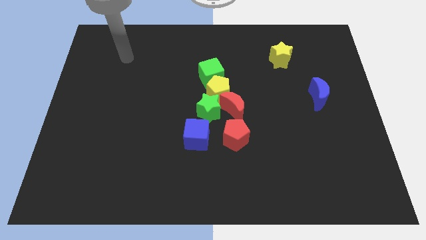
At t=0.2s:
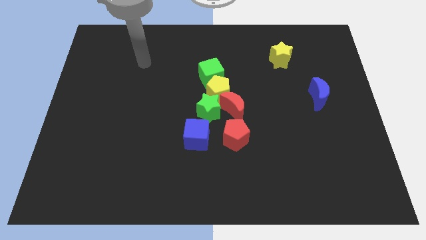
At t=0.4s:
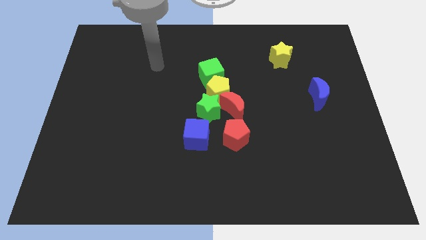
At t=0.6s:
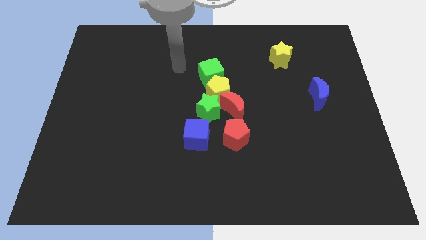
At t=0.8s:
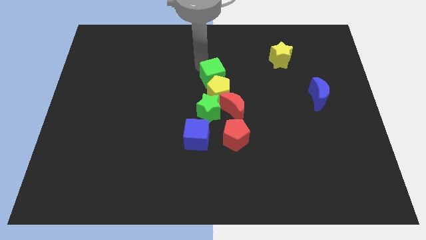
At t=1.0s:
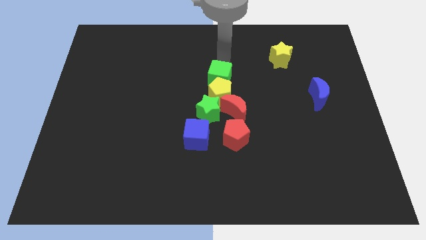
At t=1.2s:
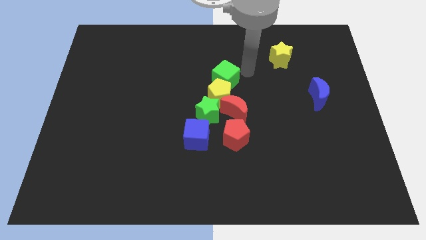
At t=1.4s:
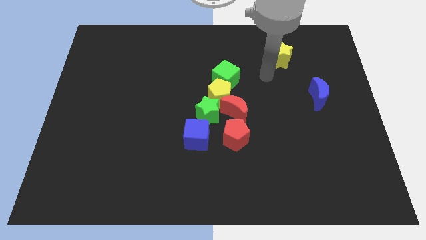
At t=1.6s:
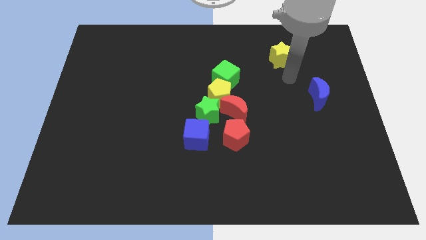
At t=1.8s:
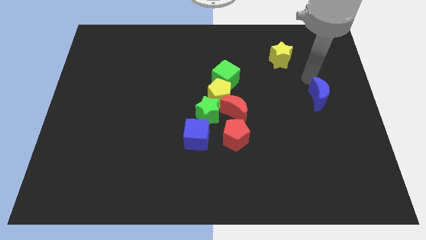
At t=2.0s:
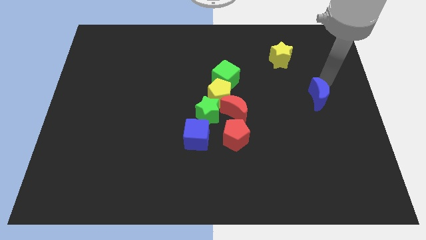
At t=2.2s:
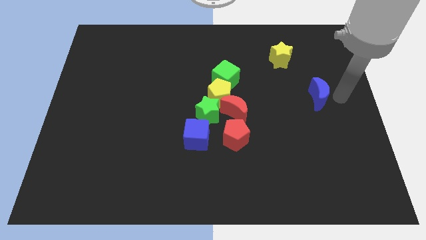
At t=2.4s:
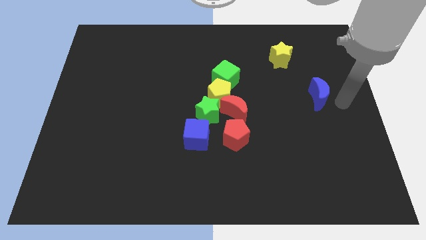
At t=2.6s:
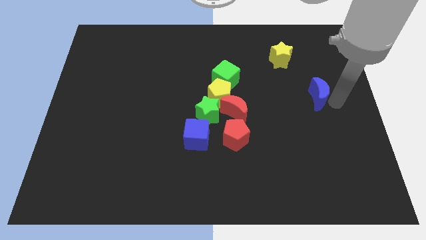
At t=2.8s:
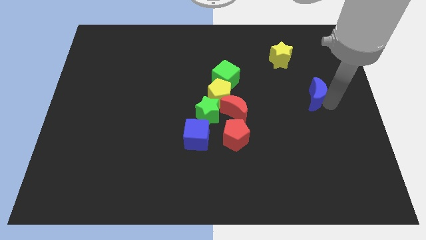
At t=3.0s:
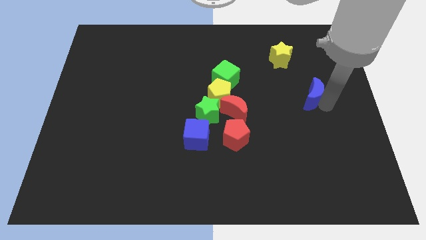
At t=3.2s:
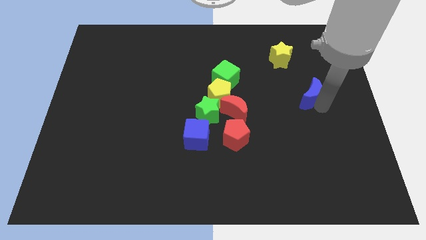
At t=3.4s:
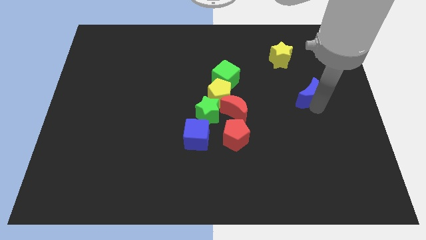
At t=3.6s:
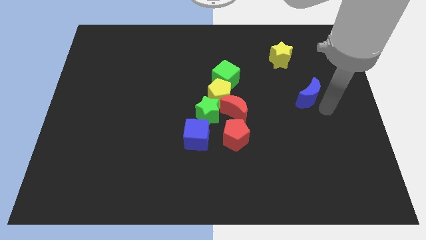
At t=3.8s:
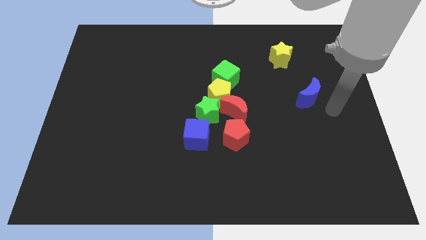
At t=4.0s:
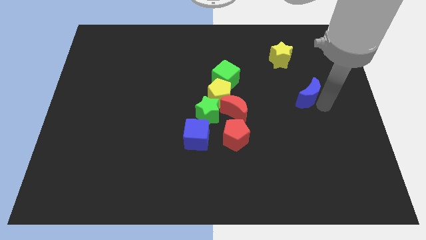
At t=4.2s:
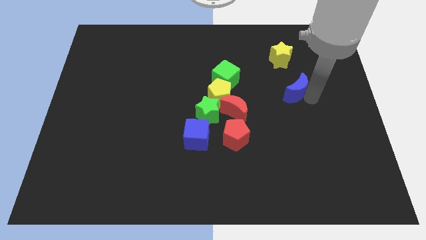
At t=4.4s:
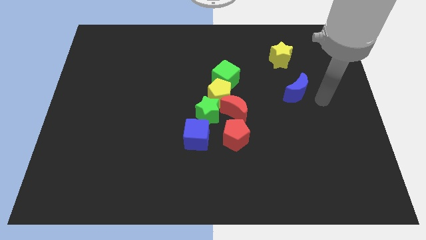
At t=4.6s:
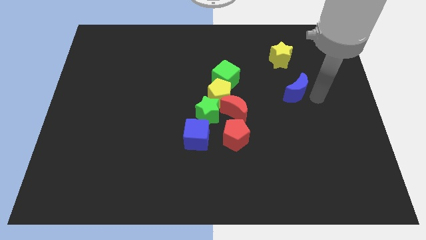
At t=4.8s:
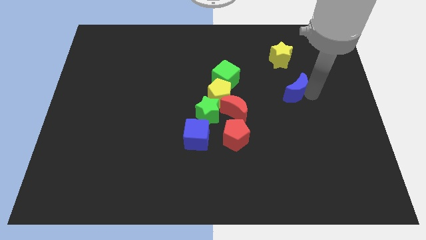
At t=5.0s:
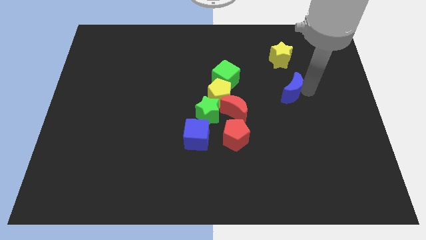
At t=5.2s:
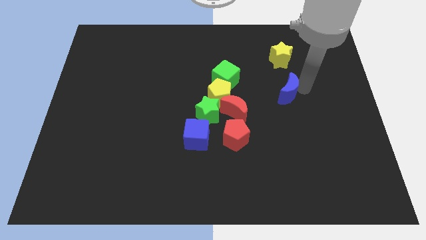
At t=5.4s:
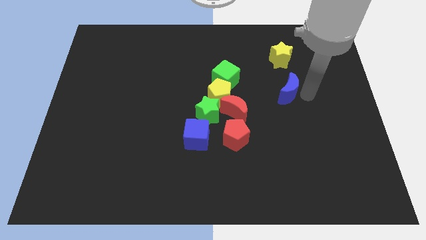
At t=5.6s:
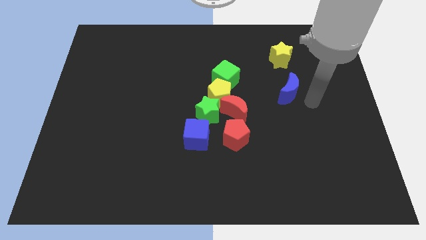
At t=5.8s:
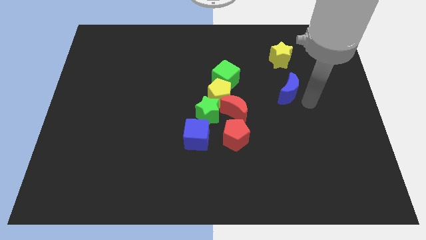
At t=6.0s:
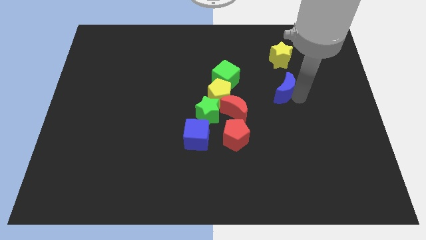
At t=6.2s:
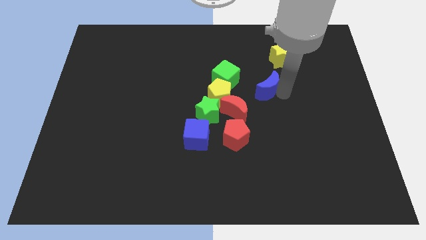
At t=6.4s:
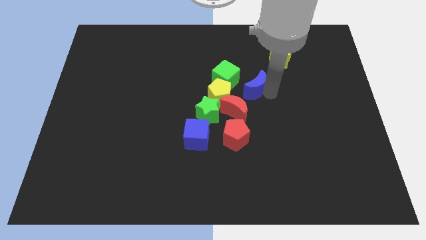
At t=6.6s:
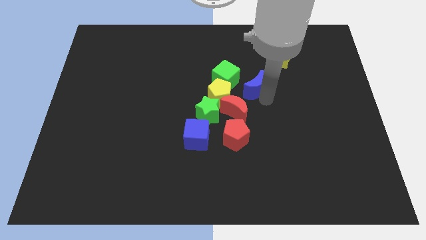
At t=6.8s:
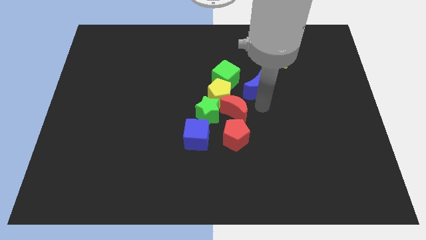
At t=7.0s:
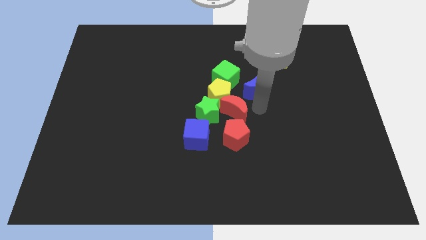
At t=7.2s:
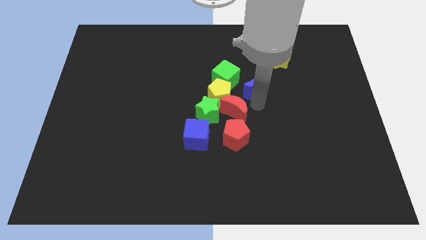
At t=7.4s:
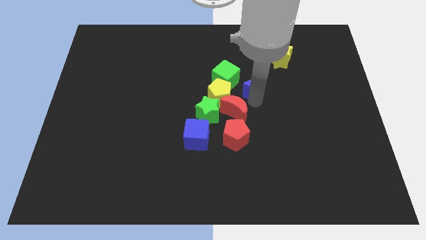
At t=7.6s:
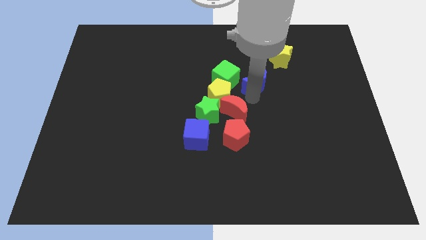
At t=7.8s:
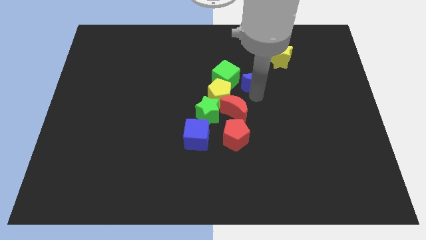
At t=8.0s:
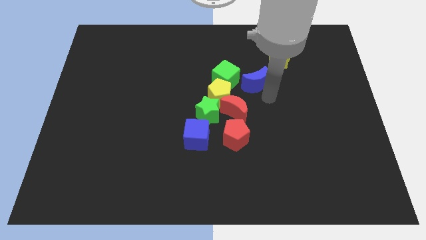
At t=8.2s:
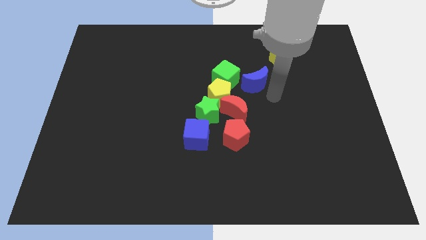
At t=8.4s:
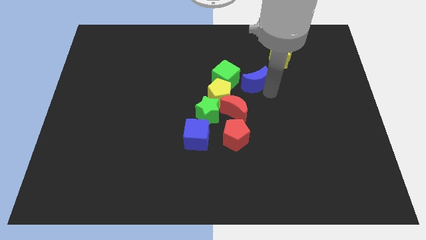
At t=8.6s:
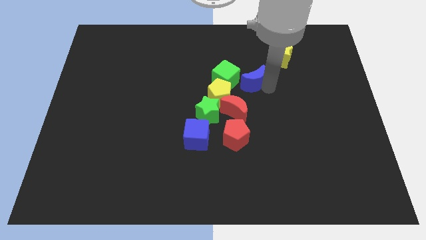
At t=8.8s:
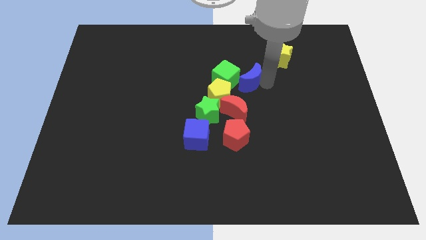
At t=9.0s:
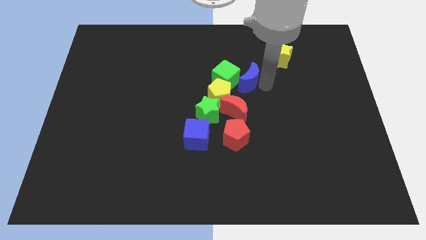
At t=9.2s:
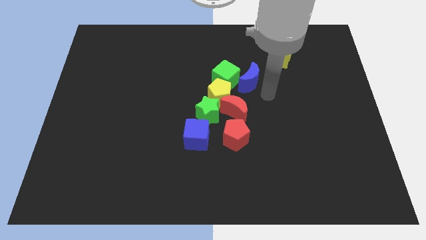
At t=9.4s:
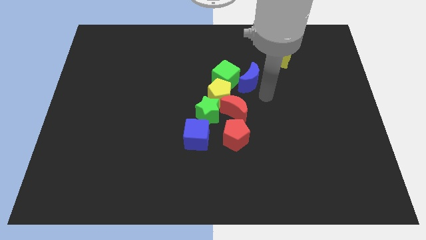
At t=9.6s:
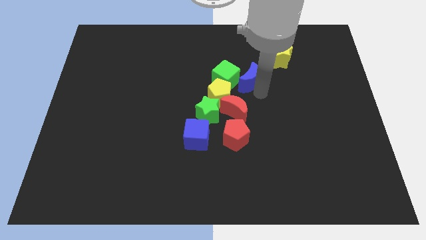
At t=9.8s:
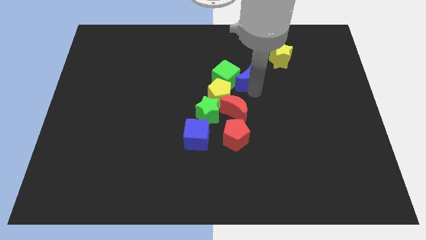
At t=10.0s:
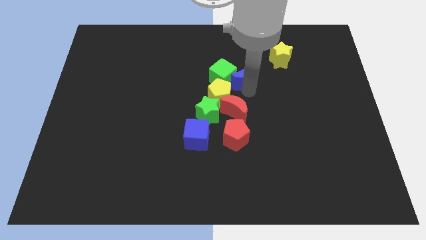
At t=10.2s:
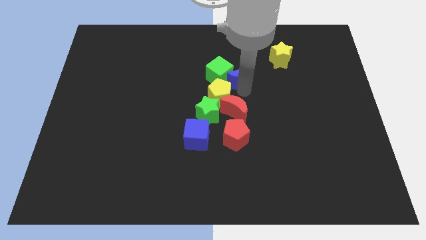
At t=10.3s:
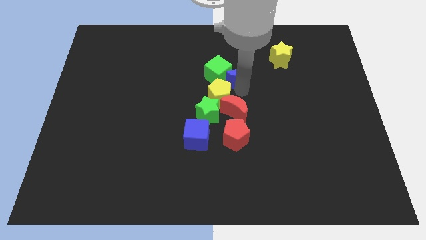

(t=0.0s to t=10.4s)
put the blue moon above the yellow pentagon

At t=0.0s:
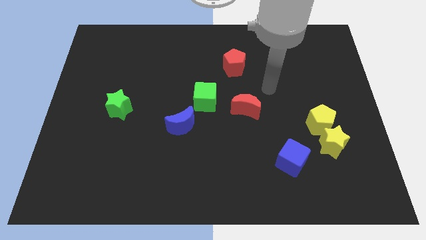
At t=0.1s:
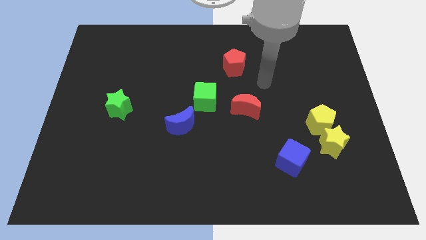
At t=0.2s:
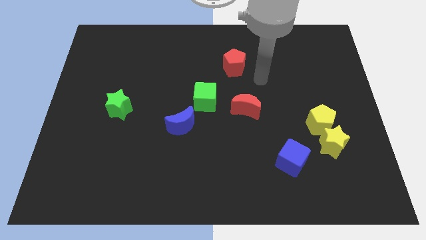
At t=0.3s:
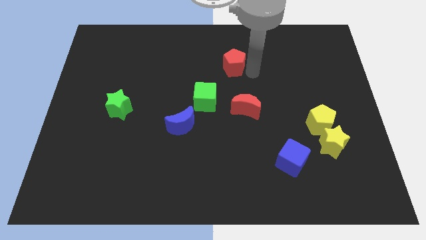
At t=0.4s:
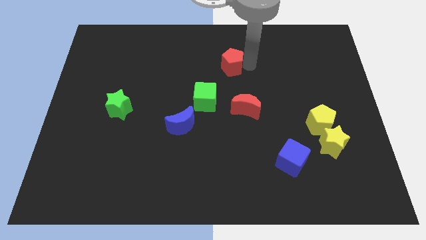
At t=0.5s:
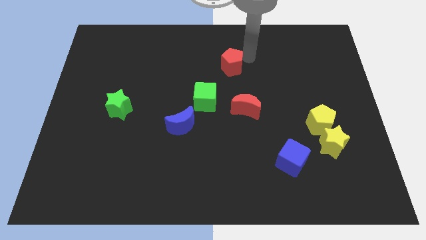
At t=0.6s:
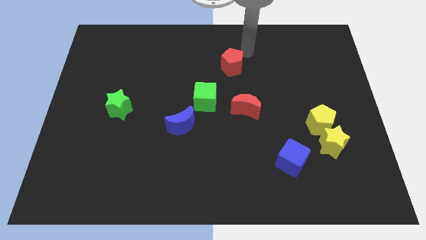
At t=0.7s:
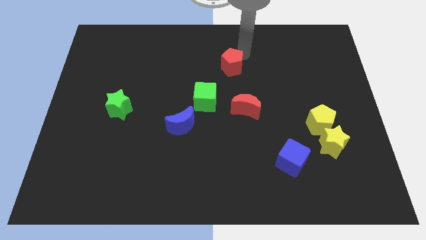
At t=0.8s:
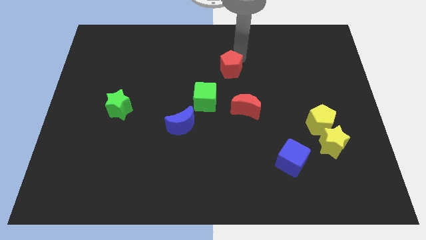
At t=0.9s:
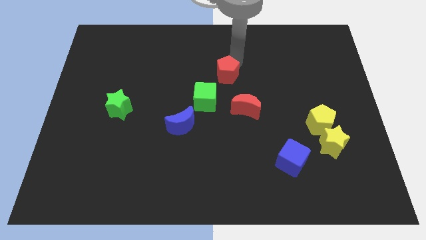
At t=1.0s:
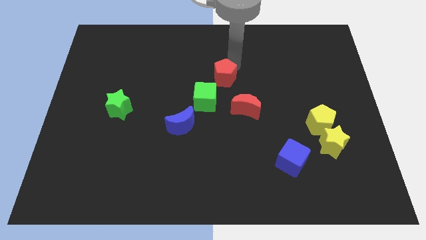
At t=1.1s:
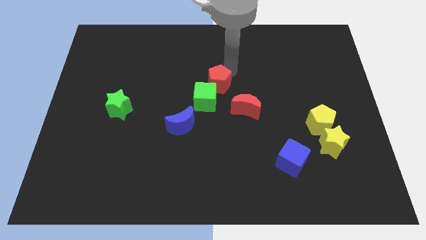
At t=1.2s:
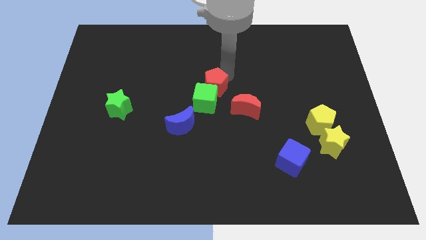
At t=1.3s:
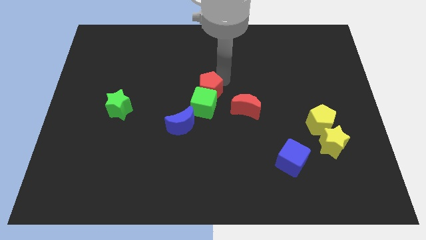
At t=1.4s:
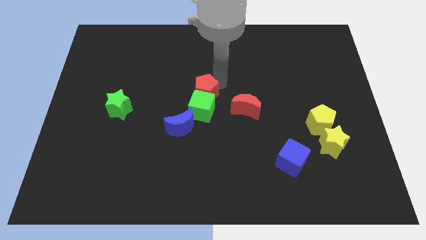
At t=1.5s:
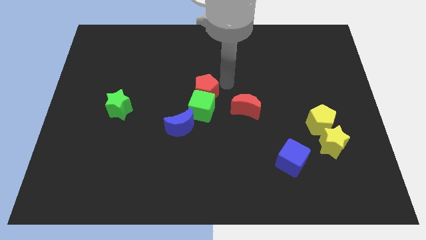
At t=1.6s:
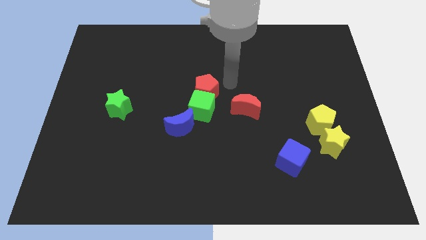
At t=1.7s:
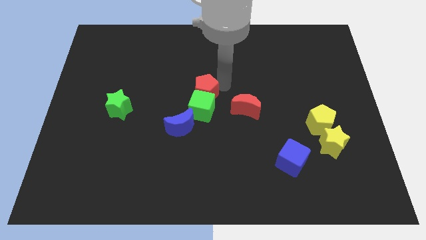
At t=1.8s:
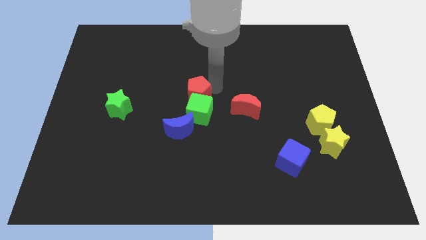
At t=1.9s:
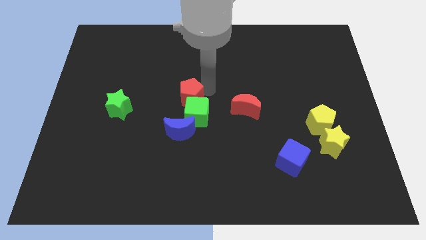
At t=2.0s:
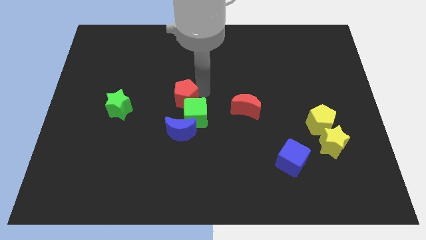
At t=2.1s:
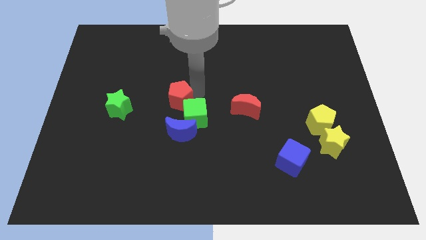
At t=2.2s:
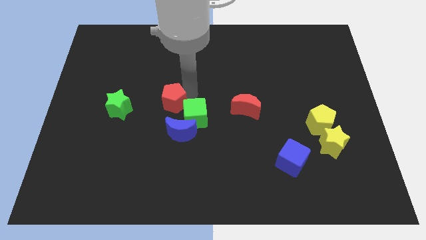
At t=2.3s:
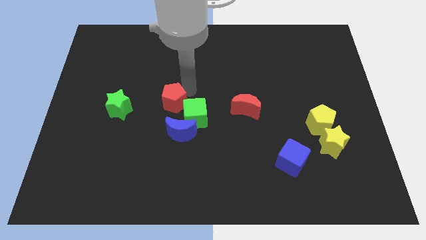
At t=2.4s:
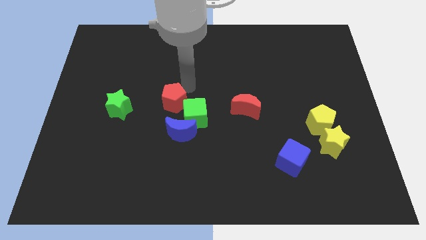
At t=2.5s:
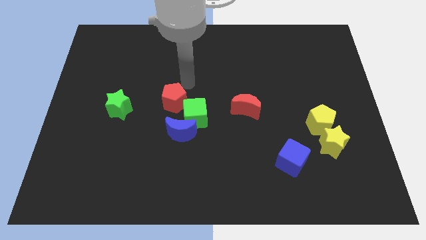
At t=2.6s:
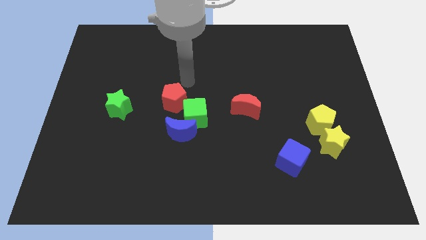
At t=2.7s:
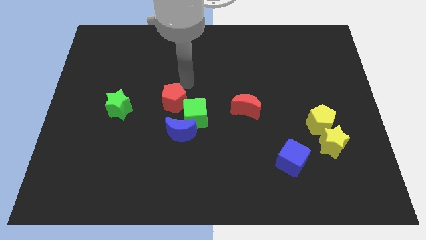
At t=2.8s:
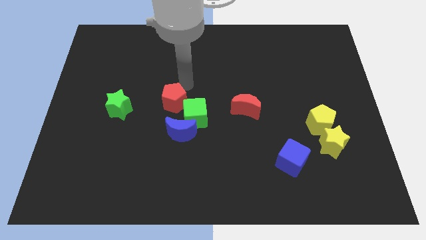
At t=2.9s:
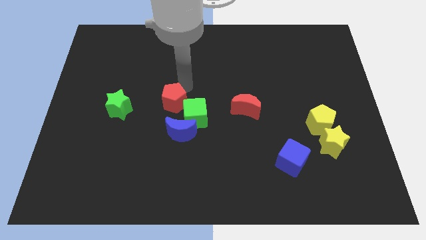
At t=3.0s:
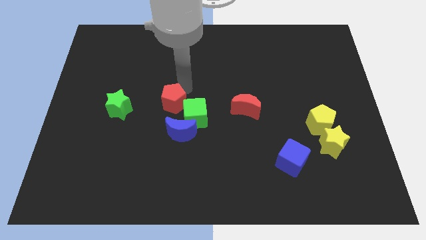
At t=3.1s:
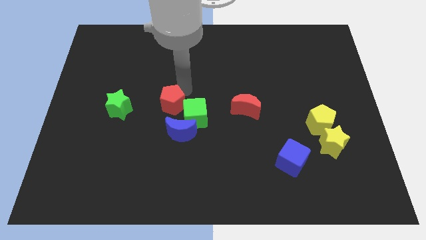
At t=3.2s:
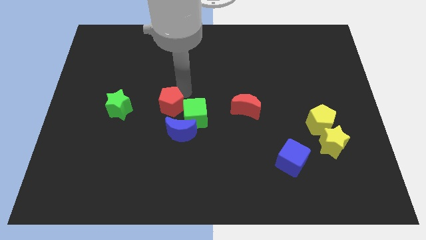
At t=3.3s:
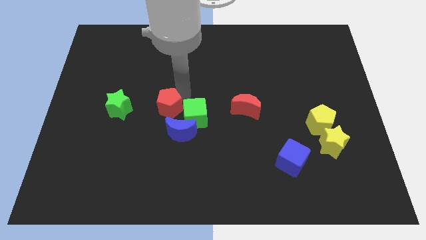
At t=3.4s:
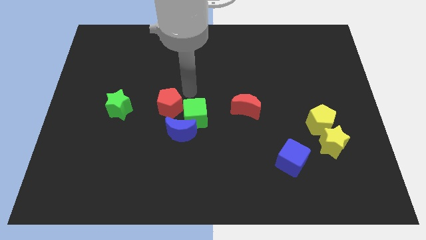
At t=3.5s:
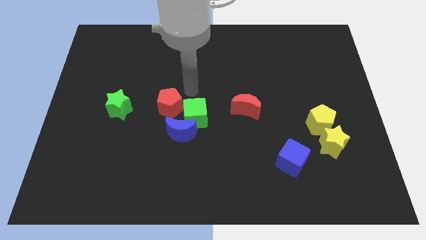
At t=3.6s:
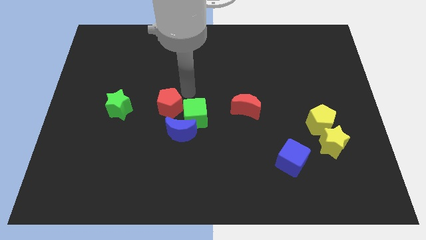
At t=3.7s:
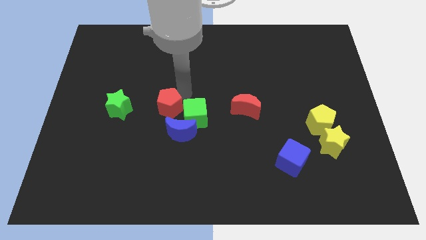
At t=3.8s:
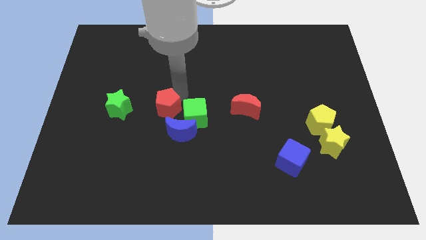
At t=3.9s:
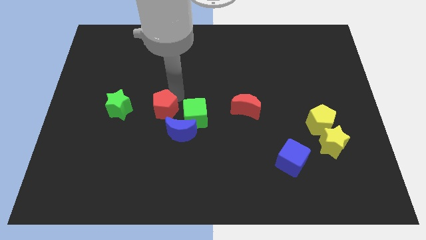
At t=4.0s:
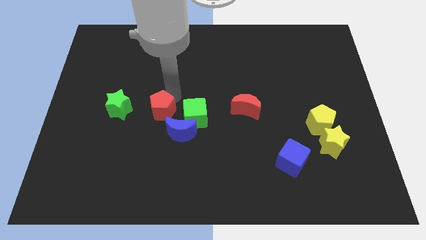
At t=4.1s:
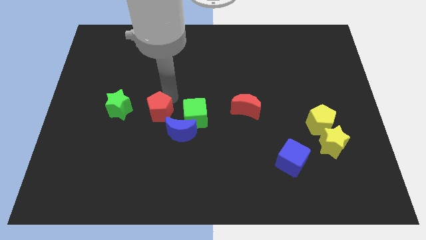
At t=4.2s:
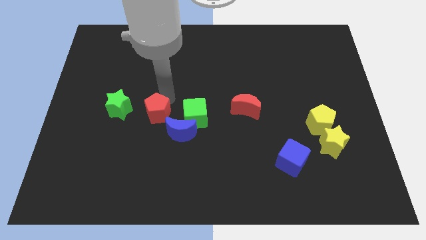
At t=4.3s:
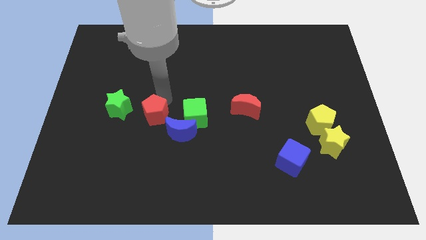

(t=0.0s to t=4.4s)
put the red pentagon diagonally down and to the right of the green star
